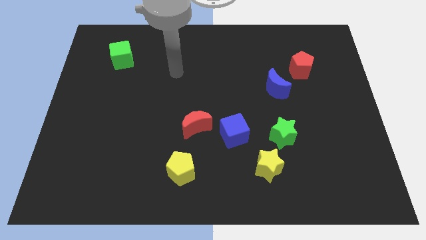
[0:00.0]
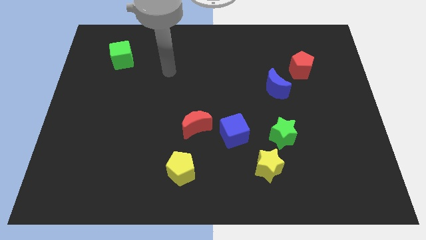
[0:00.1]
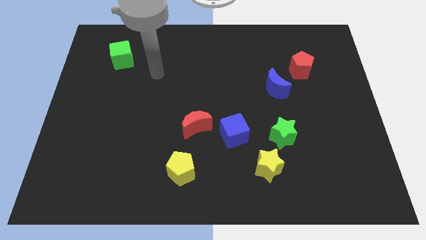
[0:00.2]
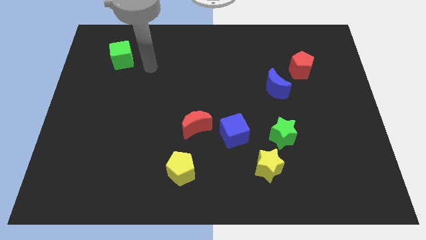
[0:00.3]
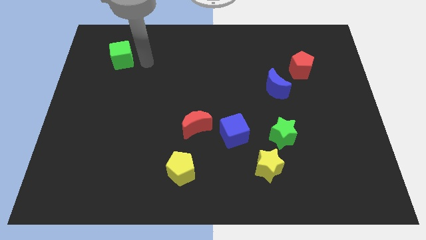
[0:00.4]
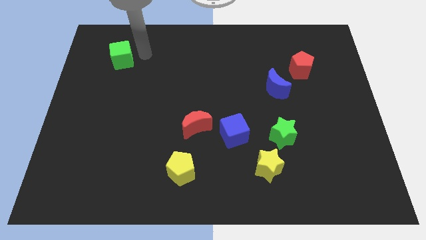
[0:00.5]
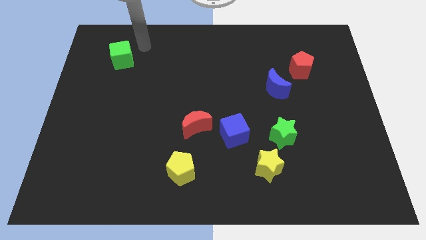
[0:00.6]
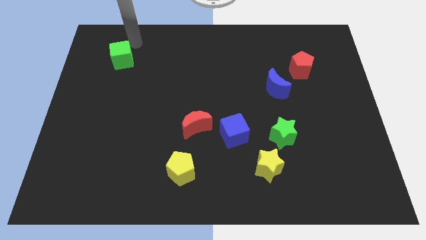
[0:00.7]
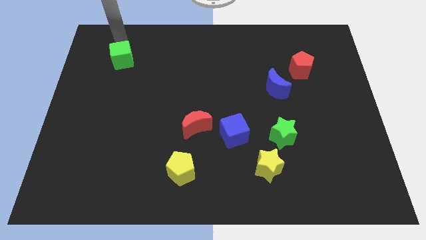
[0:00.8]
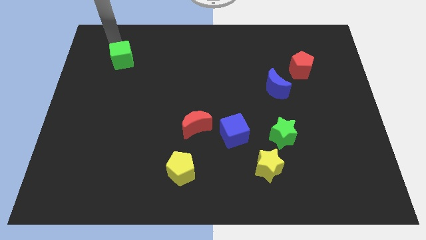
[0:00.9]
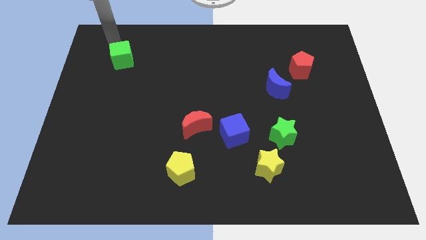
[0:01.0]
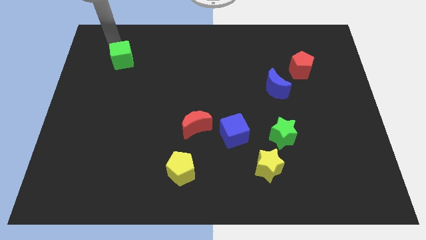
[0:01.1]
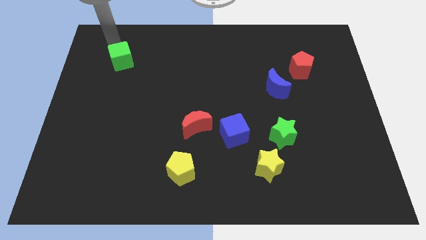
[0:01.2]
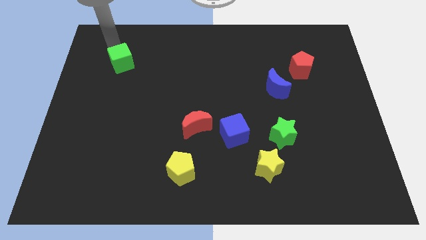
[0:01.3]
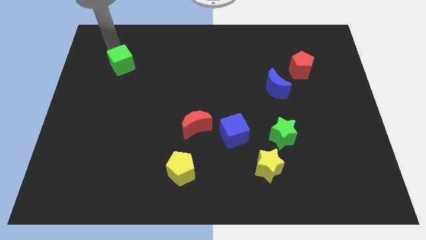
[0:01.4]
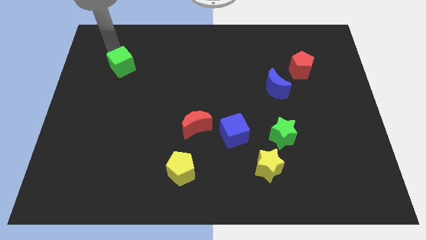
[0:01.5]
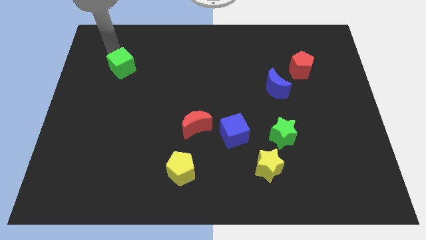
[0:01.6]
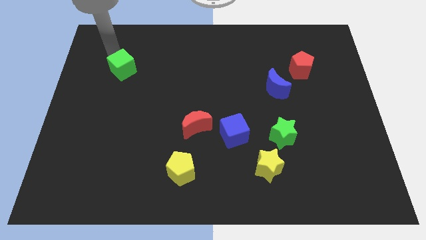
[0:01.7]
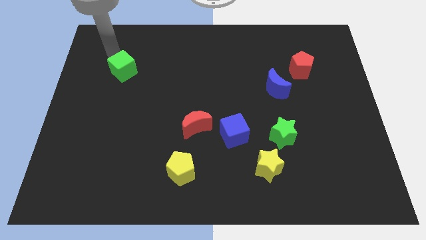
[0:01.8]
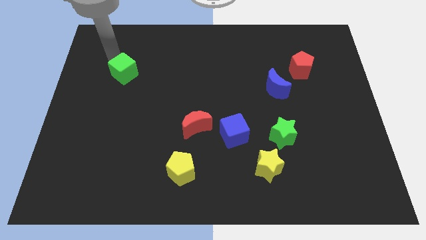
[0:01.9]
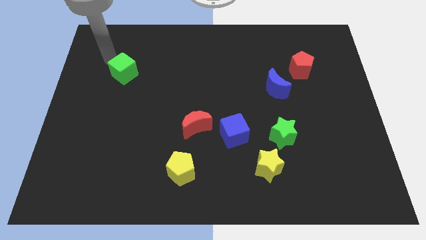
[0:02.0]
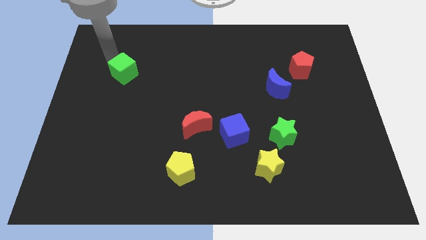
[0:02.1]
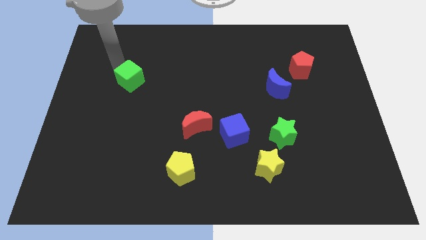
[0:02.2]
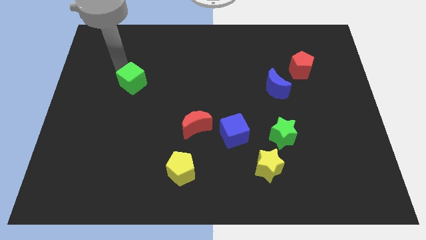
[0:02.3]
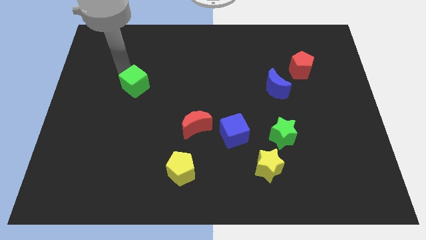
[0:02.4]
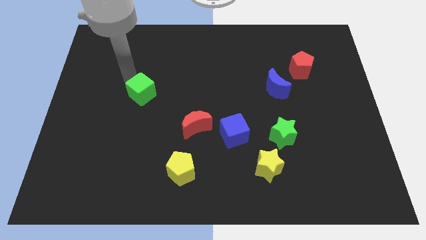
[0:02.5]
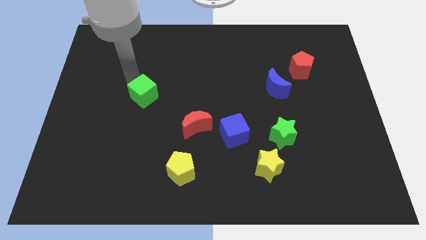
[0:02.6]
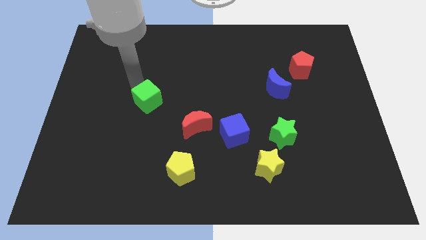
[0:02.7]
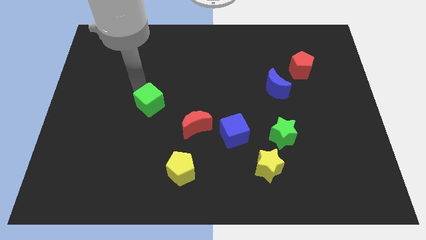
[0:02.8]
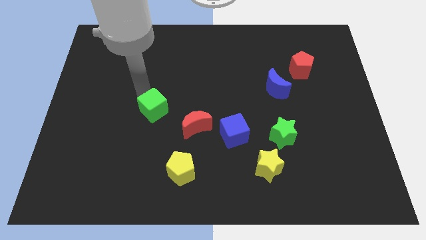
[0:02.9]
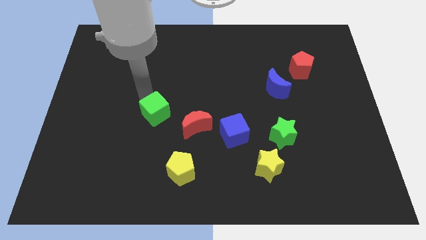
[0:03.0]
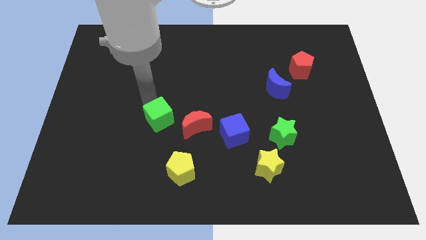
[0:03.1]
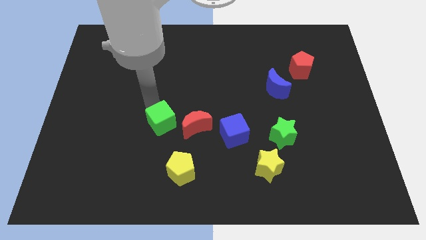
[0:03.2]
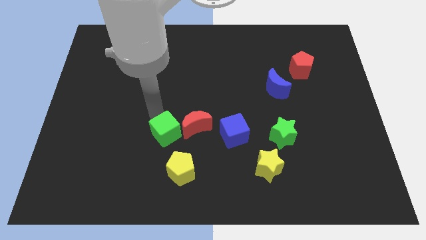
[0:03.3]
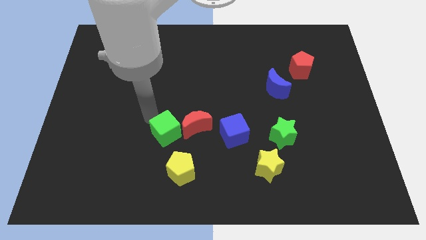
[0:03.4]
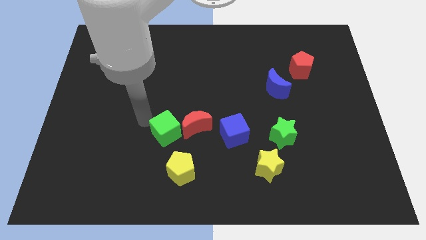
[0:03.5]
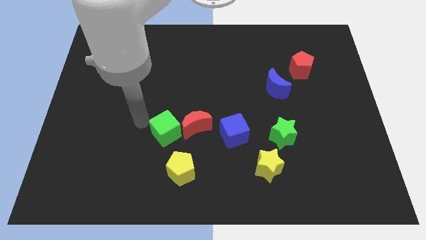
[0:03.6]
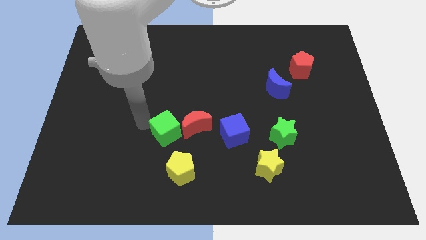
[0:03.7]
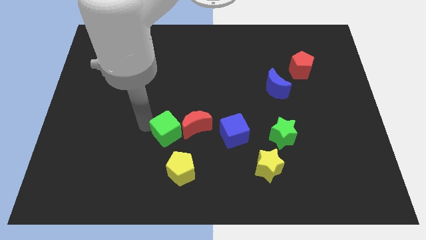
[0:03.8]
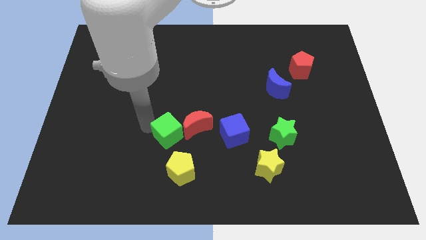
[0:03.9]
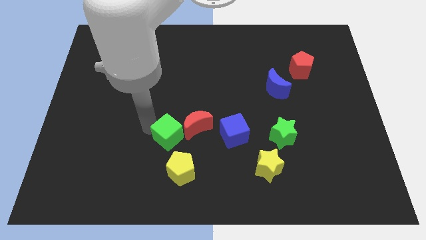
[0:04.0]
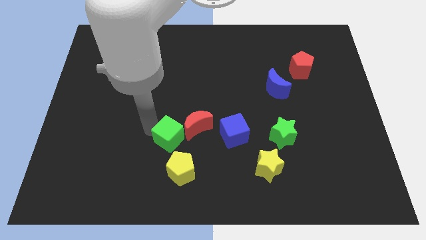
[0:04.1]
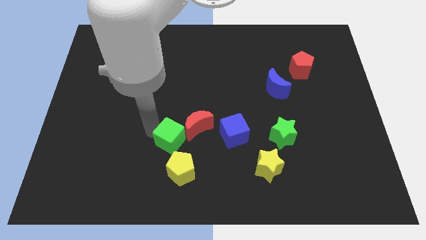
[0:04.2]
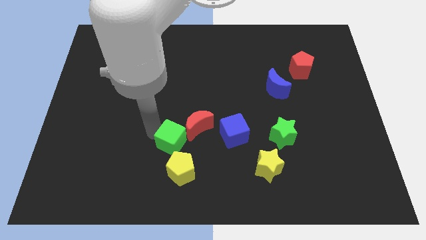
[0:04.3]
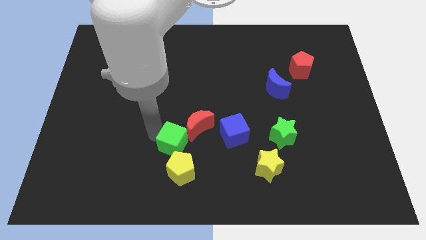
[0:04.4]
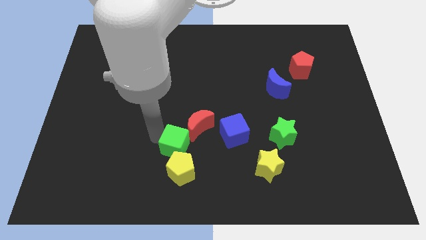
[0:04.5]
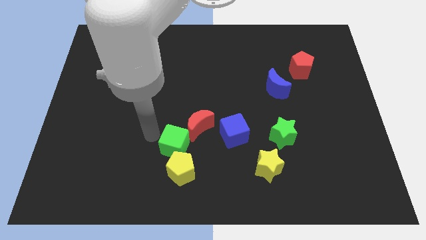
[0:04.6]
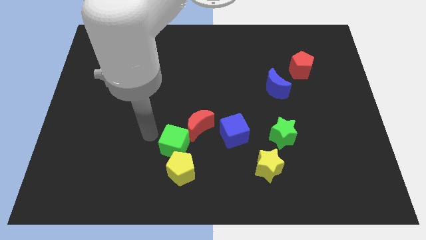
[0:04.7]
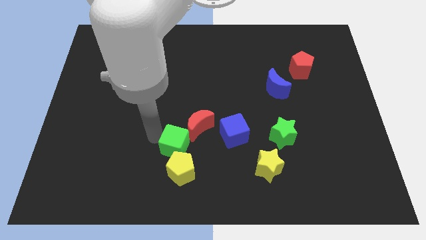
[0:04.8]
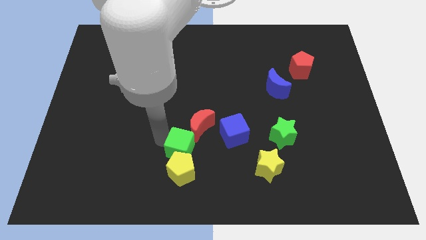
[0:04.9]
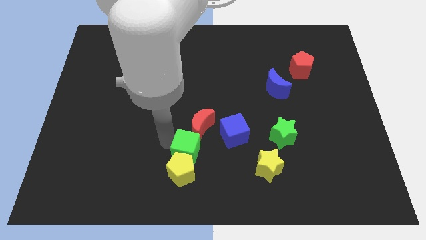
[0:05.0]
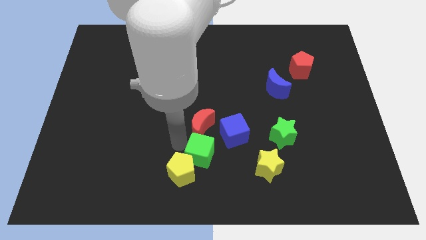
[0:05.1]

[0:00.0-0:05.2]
slide the green cube to the bottom

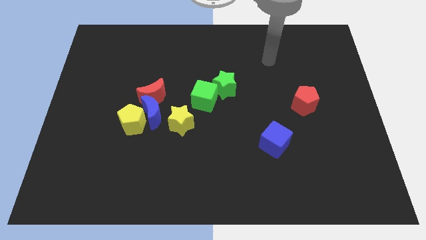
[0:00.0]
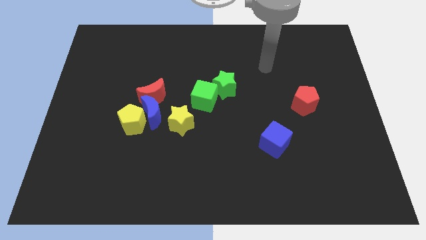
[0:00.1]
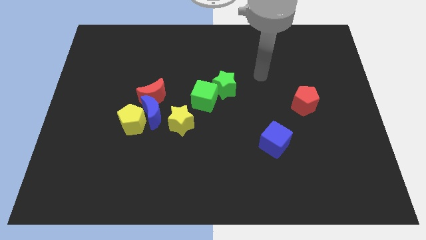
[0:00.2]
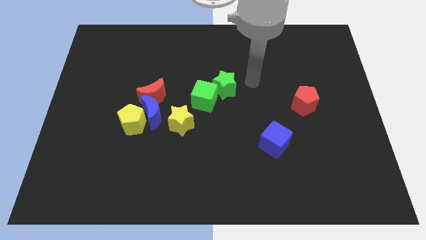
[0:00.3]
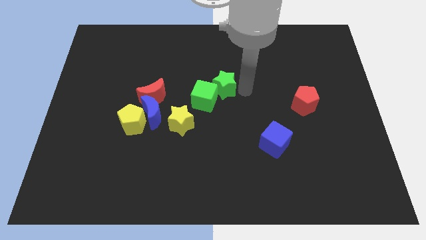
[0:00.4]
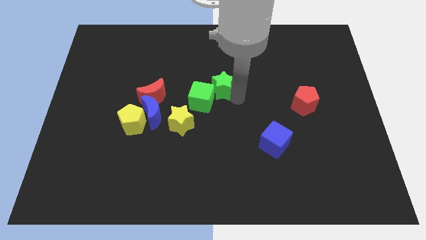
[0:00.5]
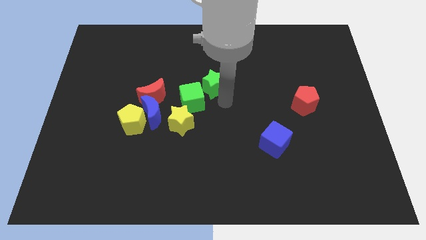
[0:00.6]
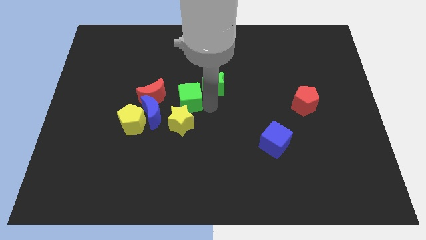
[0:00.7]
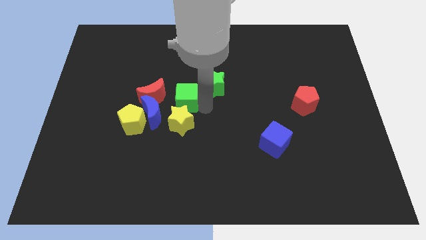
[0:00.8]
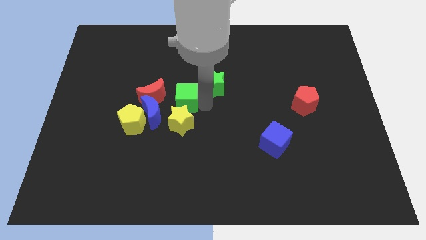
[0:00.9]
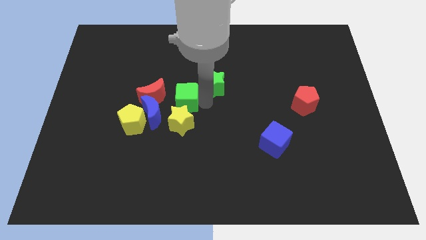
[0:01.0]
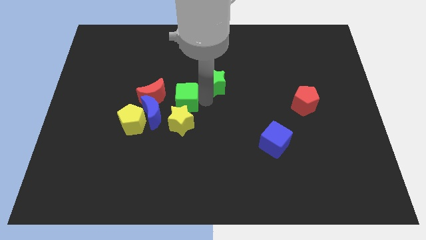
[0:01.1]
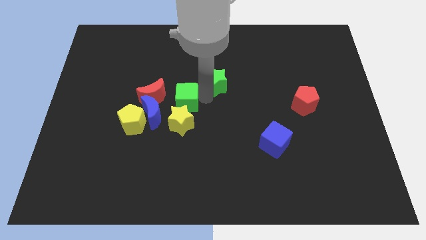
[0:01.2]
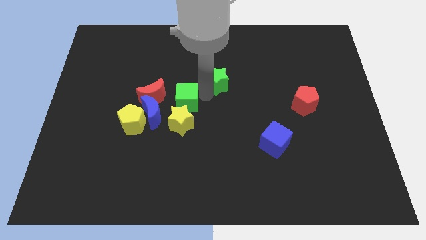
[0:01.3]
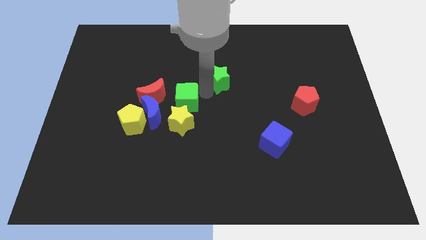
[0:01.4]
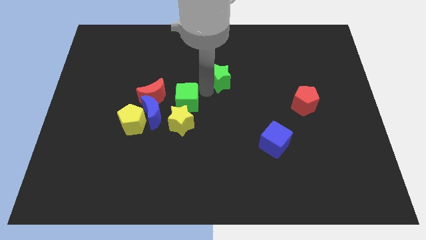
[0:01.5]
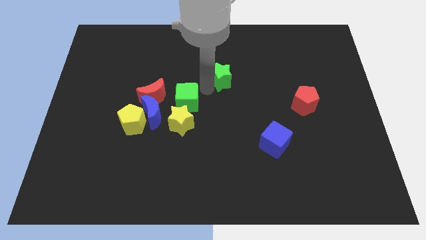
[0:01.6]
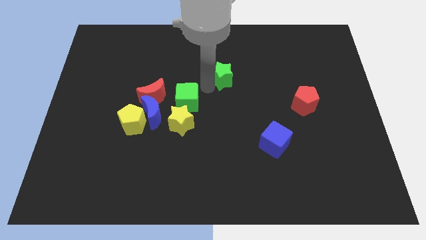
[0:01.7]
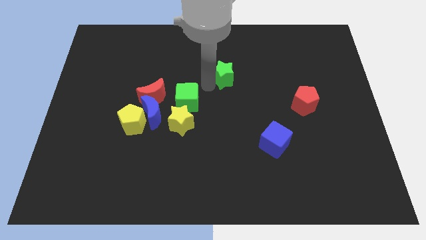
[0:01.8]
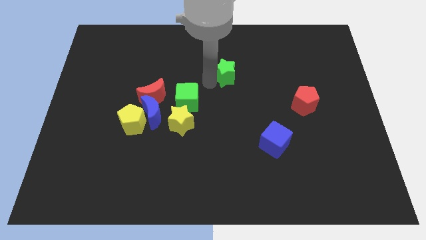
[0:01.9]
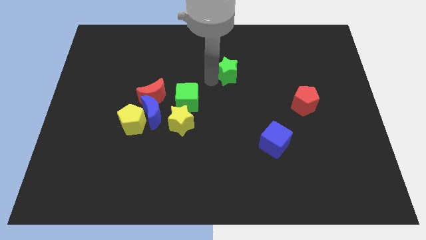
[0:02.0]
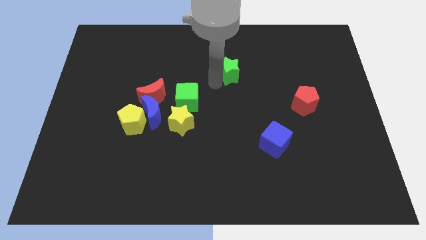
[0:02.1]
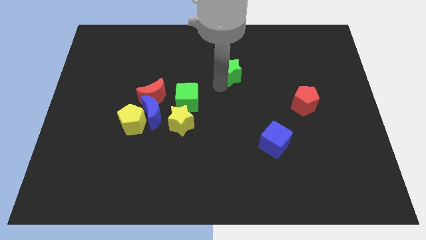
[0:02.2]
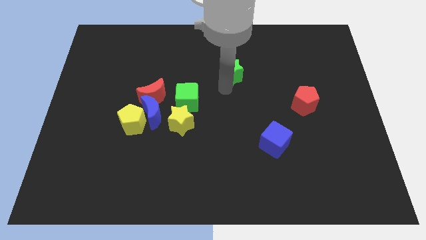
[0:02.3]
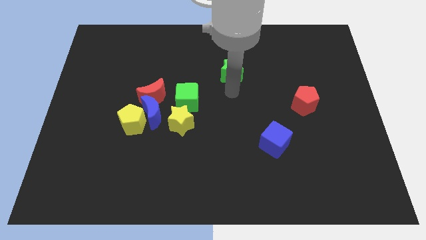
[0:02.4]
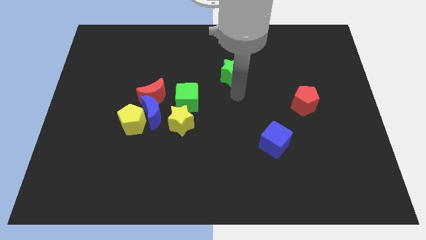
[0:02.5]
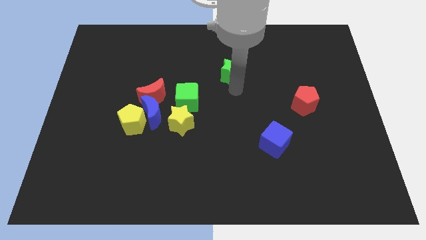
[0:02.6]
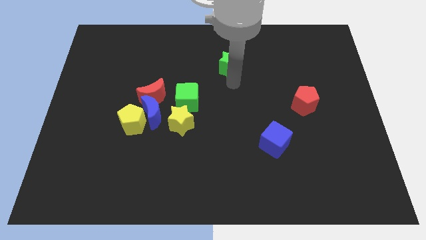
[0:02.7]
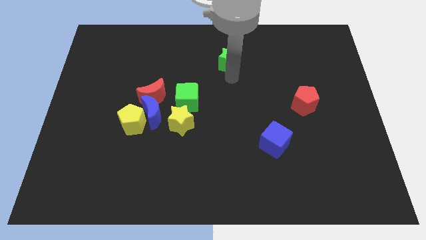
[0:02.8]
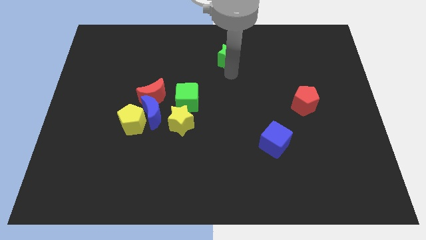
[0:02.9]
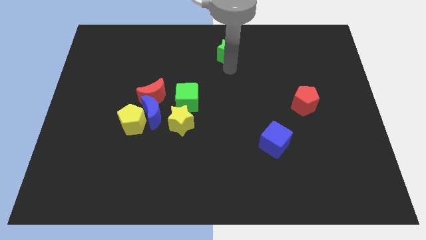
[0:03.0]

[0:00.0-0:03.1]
slide the green star to the towards your base
